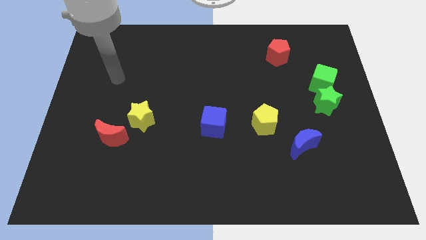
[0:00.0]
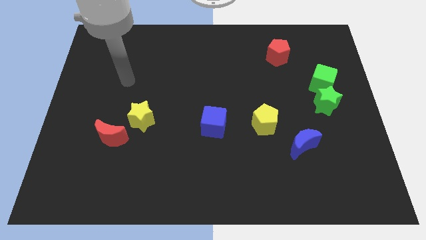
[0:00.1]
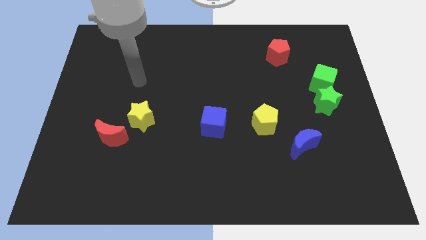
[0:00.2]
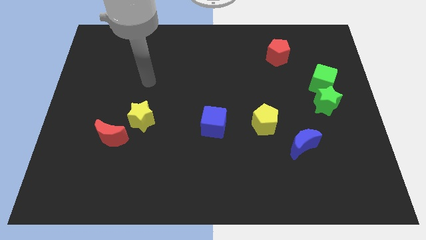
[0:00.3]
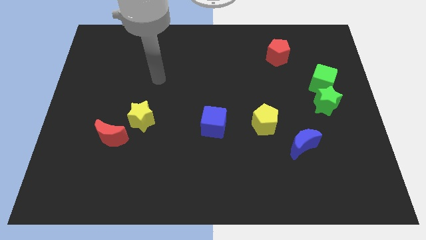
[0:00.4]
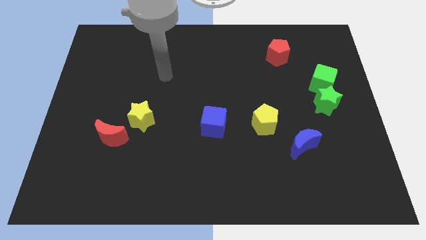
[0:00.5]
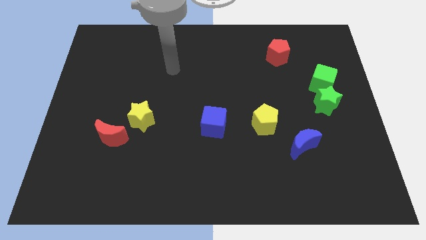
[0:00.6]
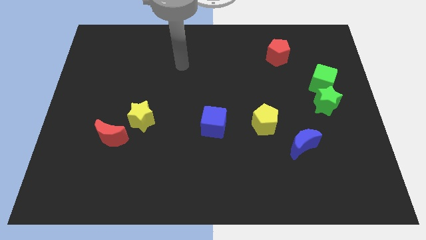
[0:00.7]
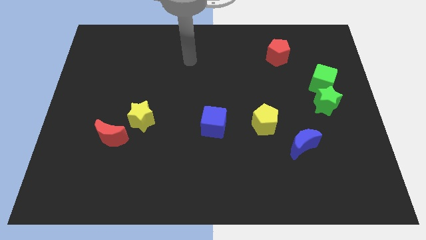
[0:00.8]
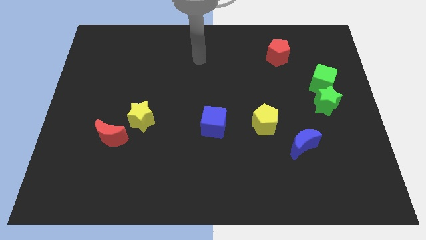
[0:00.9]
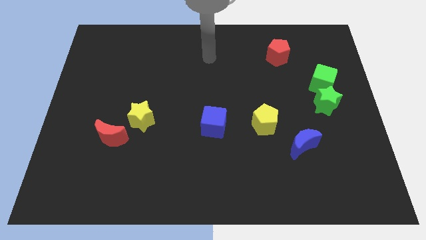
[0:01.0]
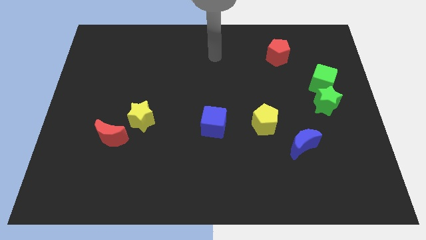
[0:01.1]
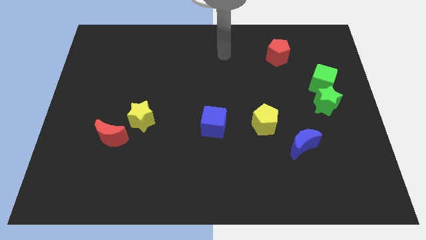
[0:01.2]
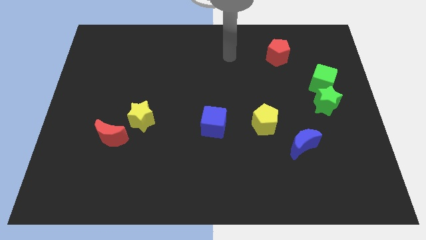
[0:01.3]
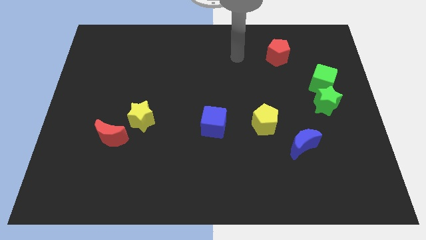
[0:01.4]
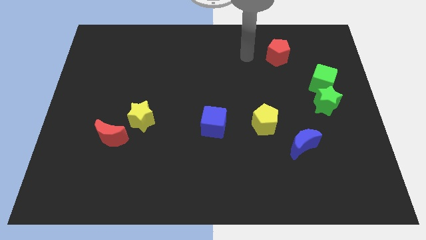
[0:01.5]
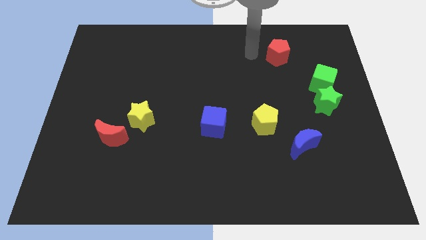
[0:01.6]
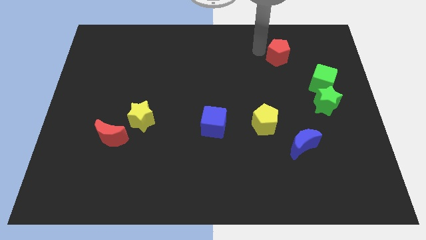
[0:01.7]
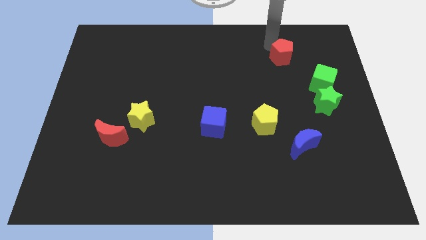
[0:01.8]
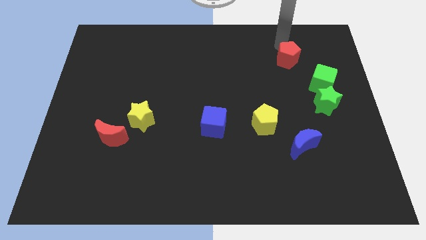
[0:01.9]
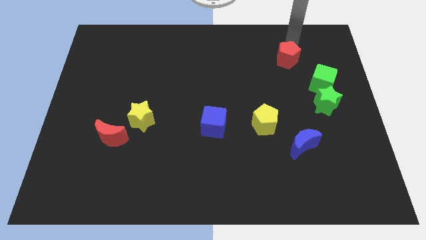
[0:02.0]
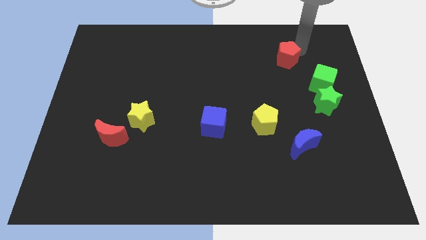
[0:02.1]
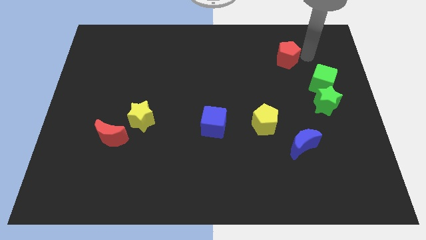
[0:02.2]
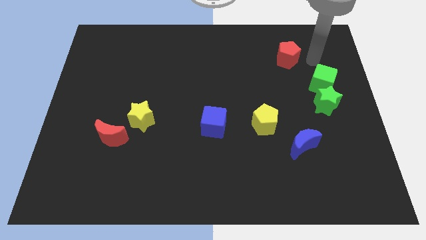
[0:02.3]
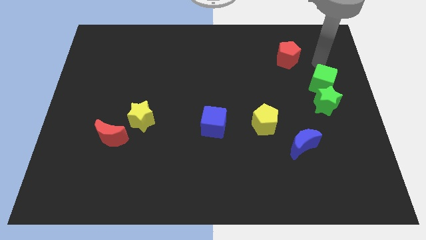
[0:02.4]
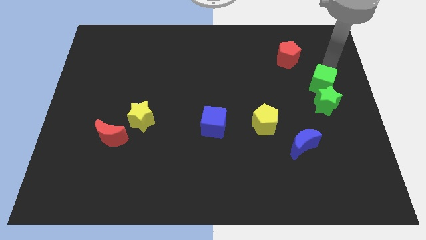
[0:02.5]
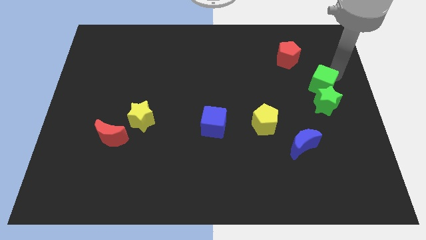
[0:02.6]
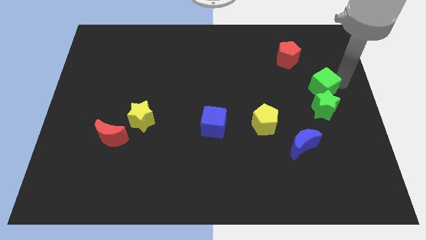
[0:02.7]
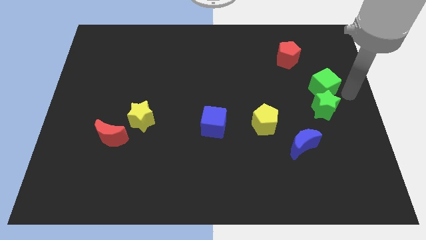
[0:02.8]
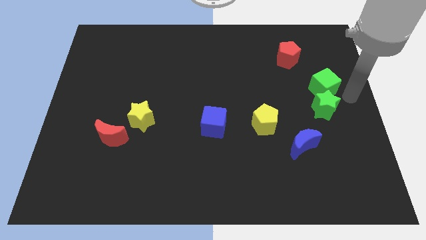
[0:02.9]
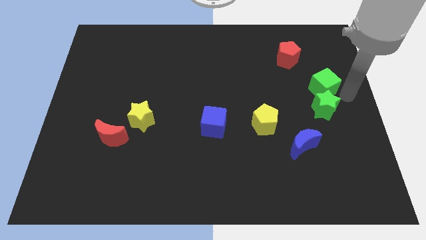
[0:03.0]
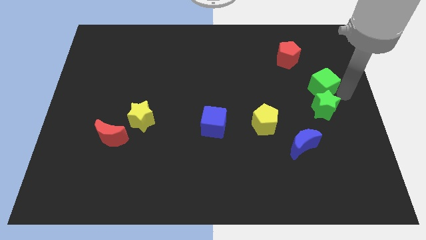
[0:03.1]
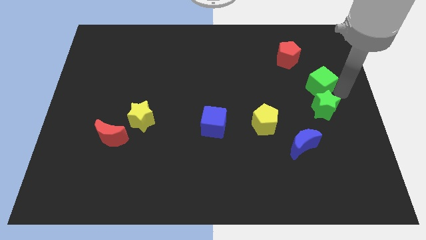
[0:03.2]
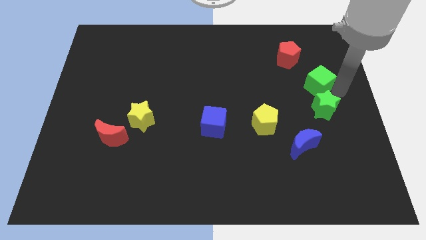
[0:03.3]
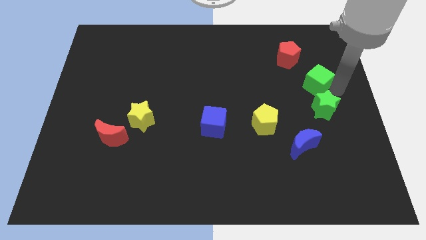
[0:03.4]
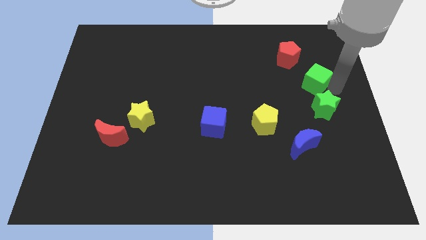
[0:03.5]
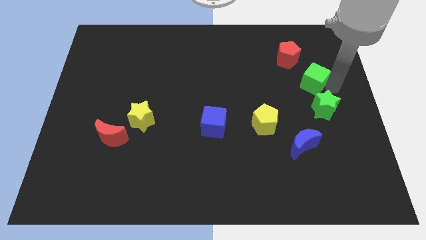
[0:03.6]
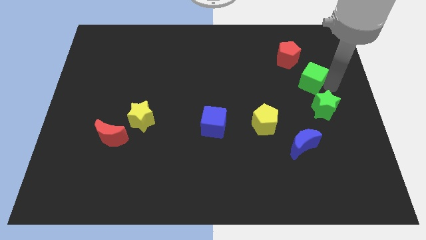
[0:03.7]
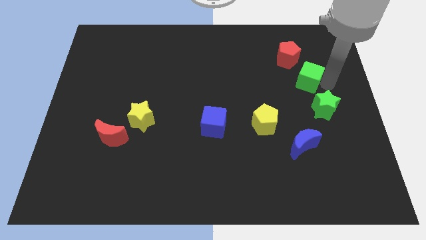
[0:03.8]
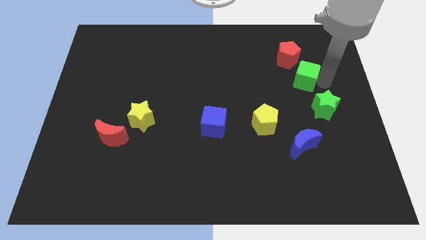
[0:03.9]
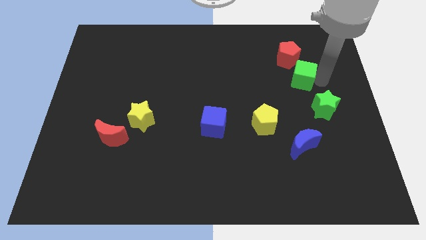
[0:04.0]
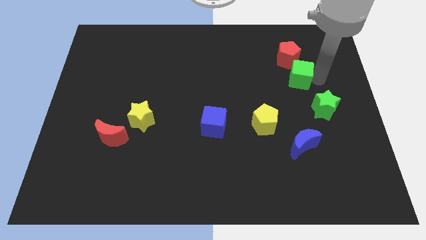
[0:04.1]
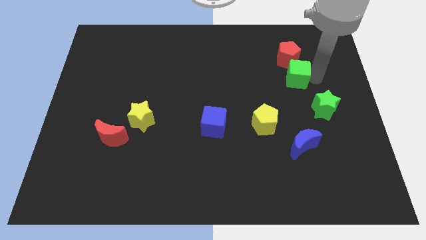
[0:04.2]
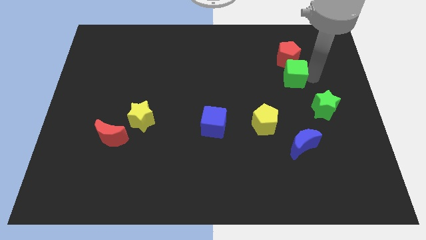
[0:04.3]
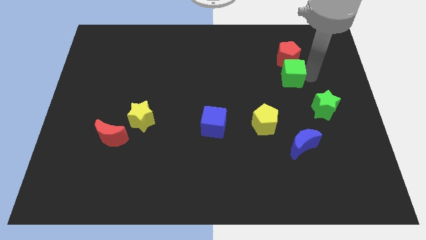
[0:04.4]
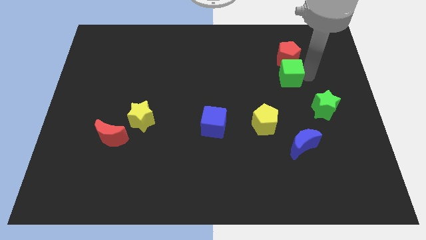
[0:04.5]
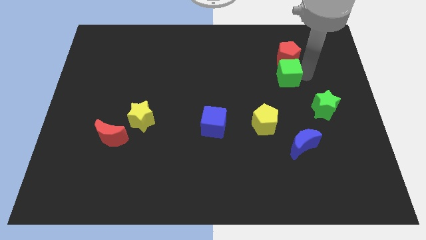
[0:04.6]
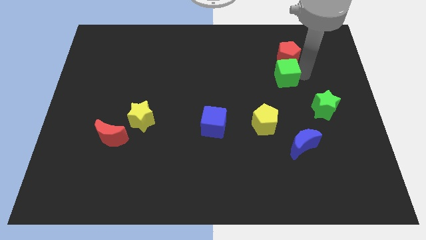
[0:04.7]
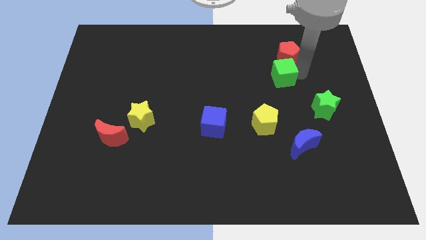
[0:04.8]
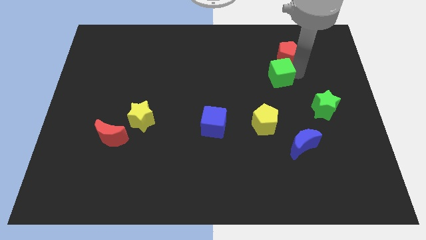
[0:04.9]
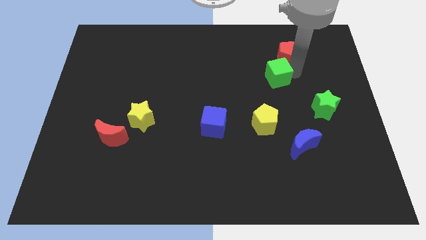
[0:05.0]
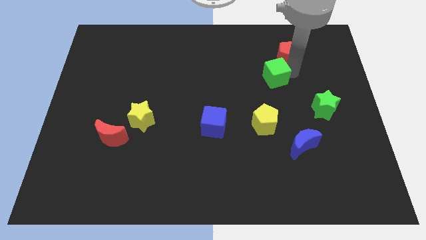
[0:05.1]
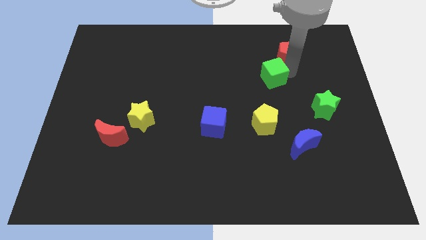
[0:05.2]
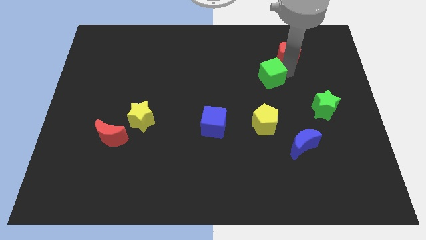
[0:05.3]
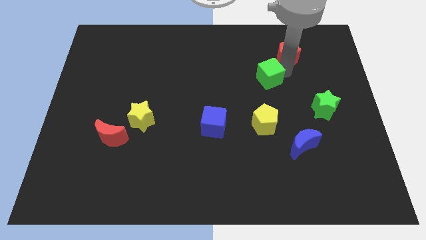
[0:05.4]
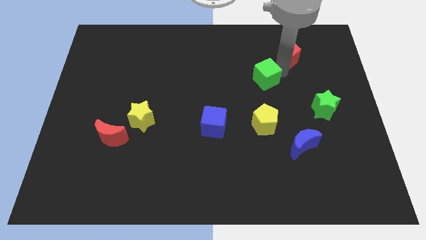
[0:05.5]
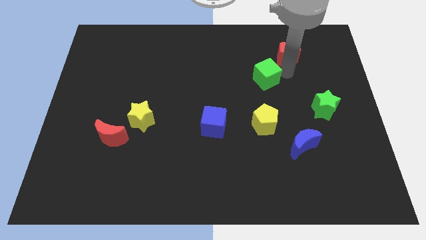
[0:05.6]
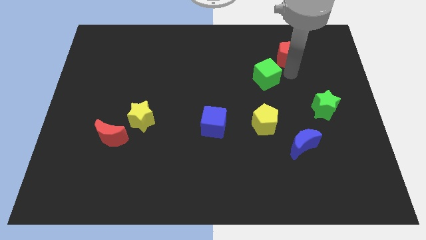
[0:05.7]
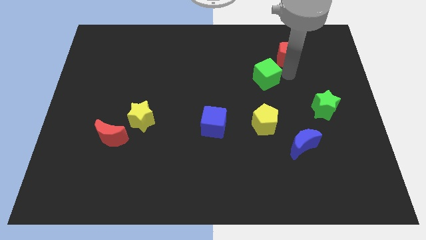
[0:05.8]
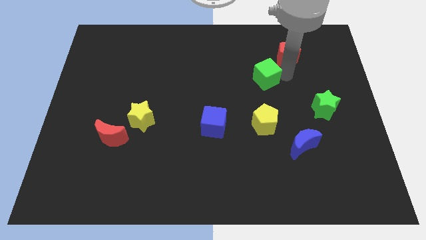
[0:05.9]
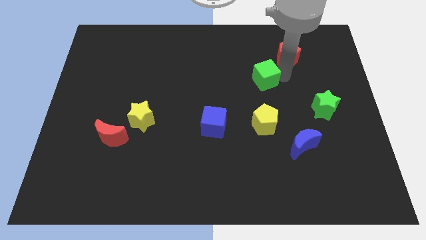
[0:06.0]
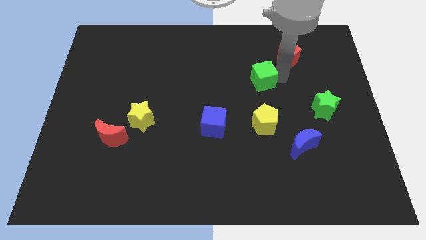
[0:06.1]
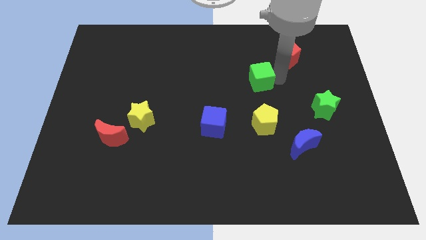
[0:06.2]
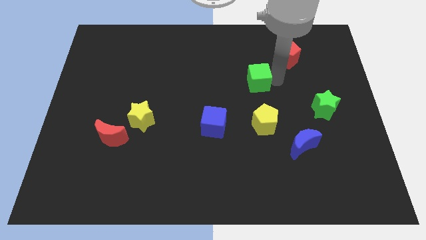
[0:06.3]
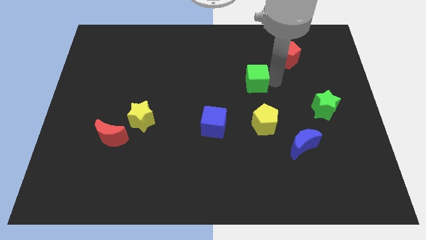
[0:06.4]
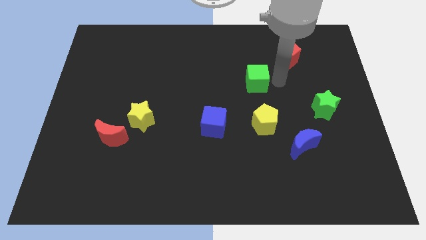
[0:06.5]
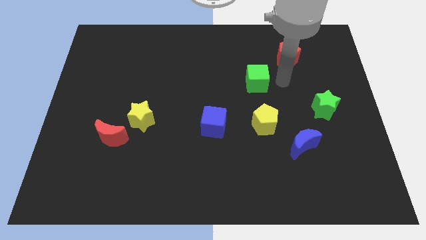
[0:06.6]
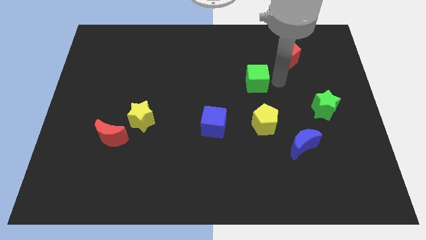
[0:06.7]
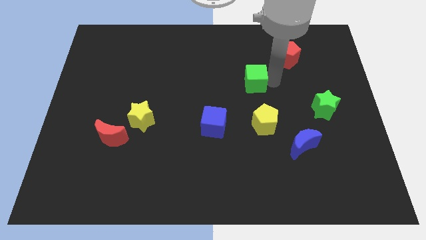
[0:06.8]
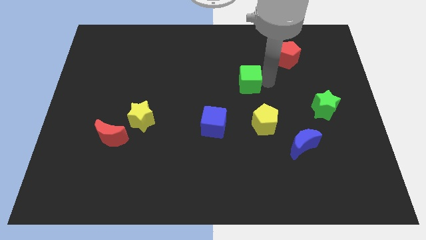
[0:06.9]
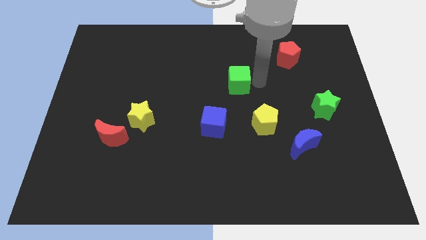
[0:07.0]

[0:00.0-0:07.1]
slide the green cube to the left

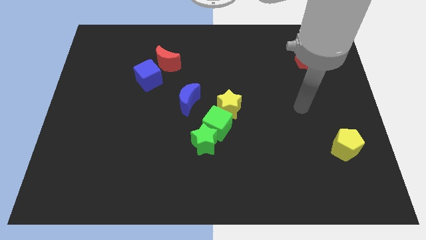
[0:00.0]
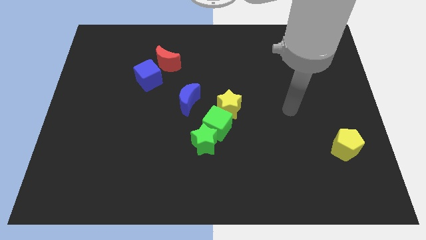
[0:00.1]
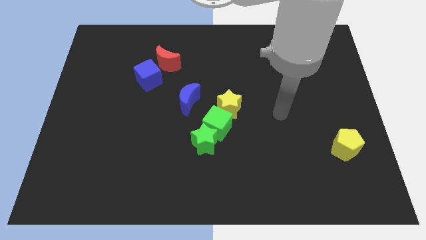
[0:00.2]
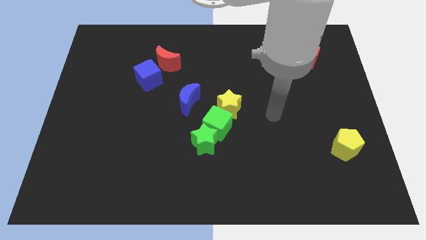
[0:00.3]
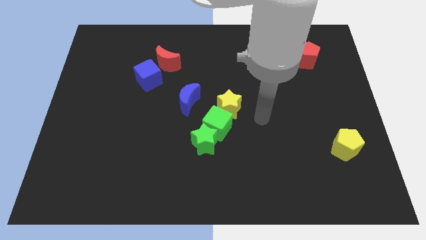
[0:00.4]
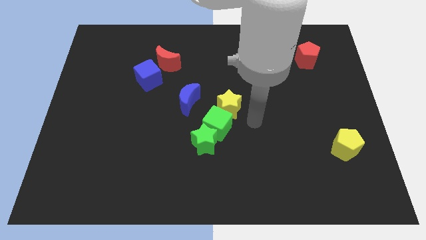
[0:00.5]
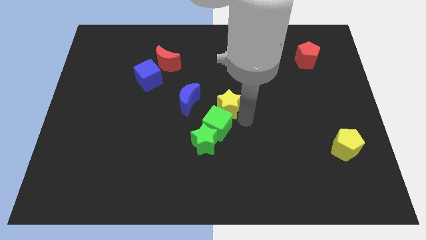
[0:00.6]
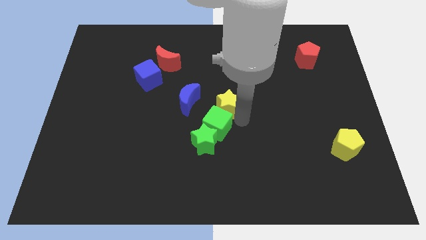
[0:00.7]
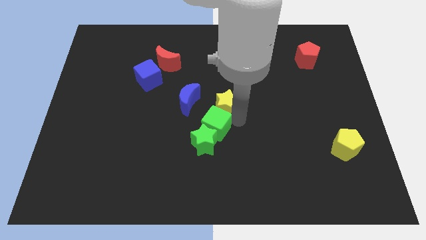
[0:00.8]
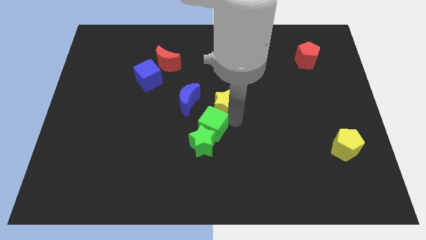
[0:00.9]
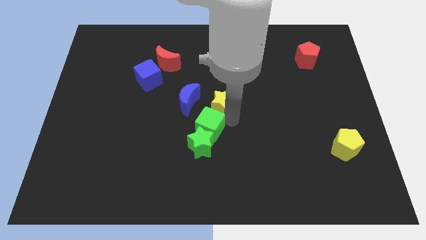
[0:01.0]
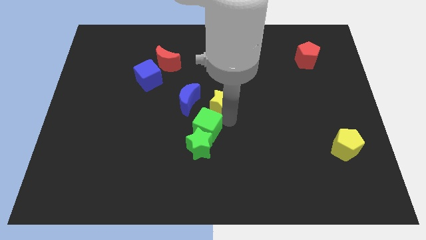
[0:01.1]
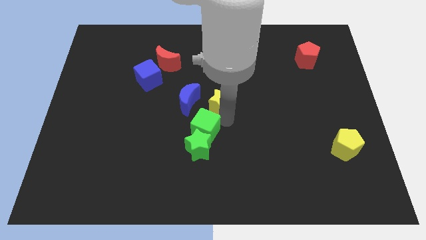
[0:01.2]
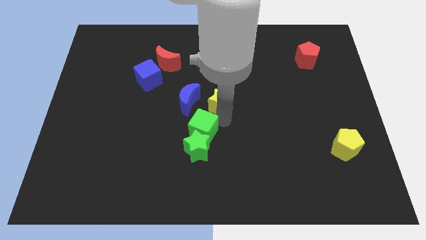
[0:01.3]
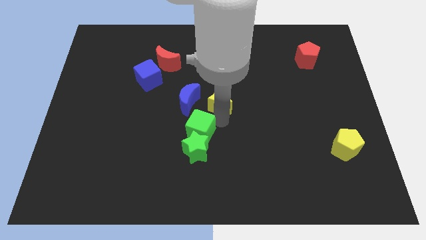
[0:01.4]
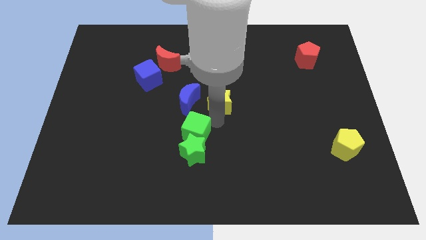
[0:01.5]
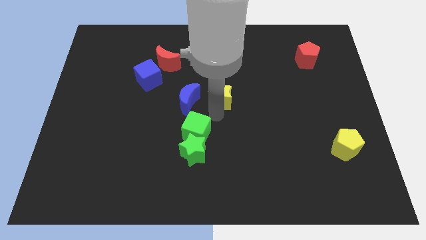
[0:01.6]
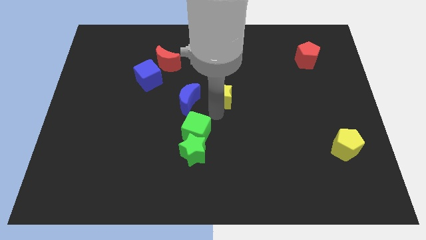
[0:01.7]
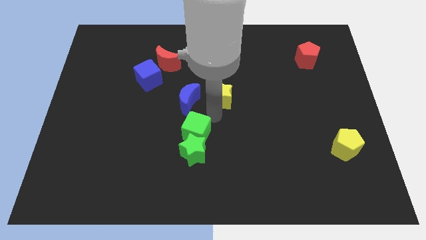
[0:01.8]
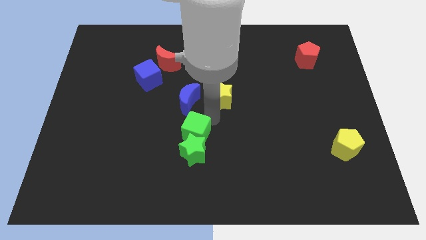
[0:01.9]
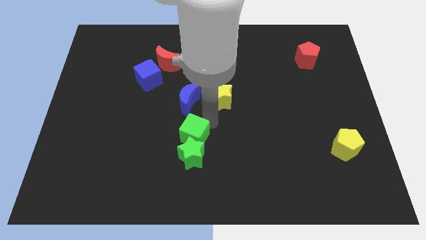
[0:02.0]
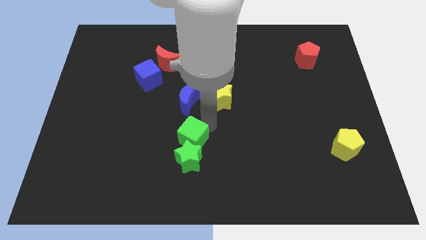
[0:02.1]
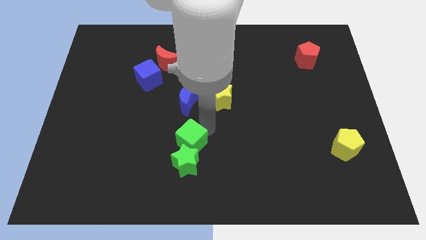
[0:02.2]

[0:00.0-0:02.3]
push the green cube a little downwards and left
